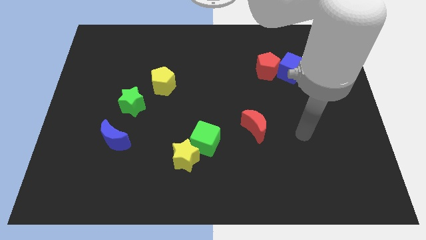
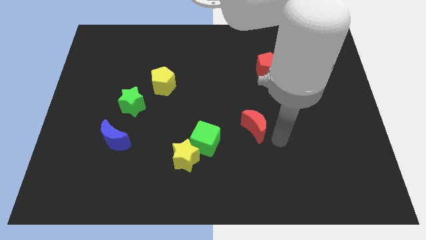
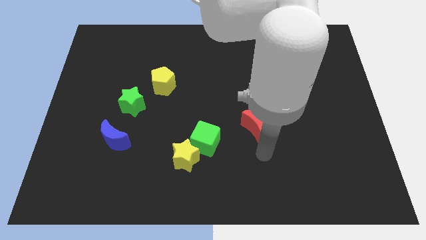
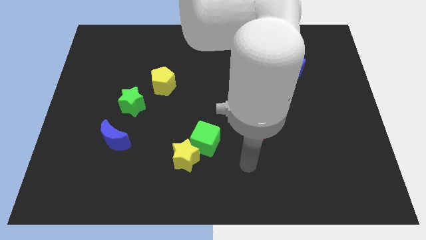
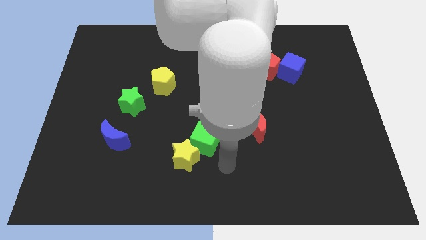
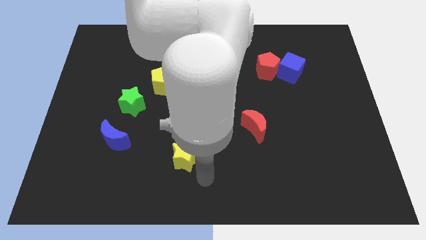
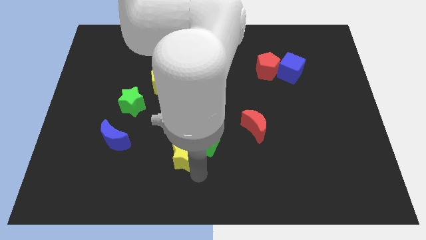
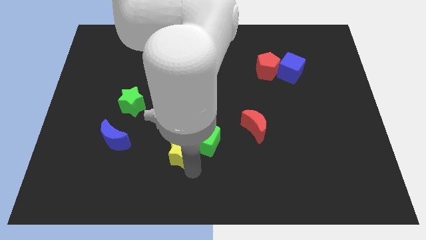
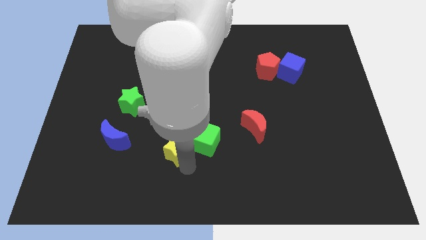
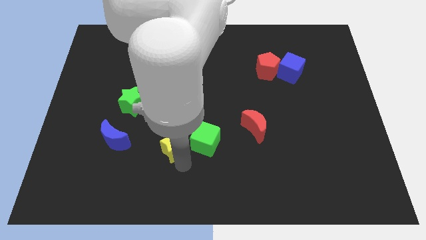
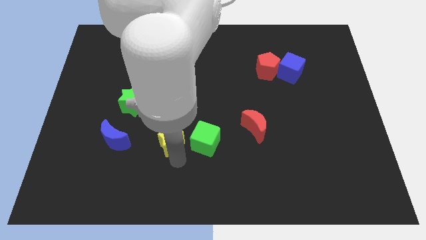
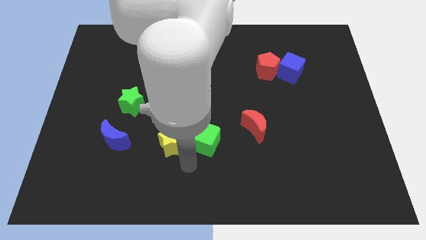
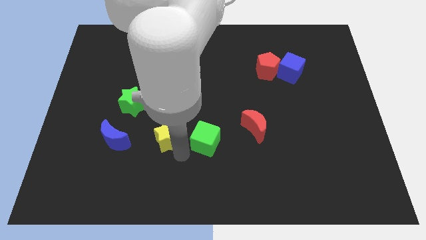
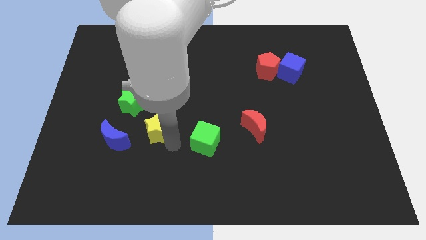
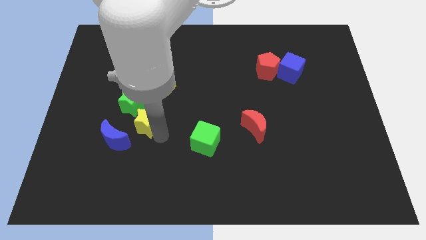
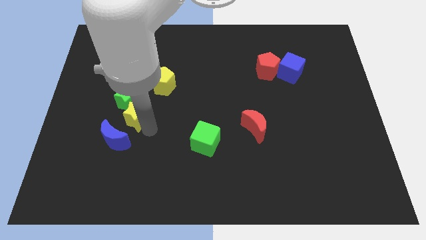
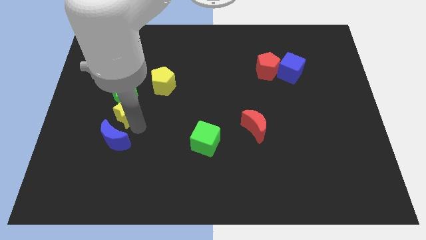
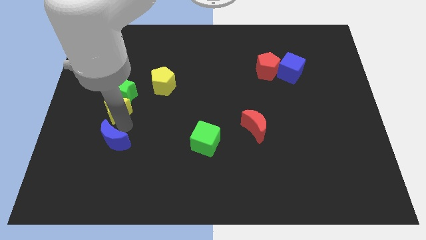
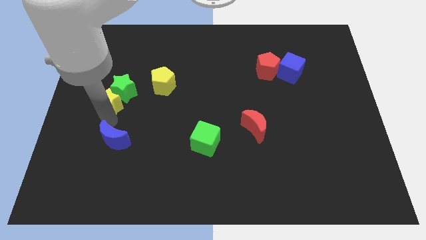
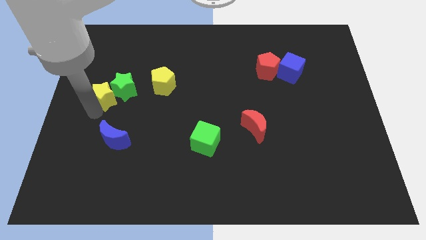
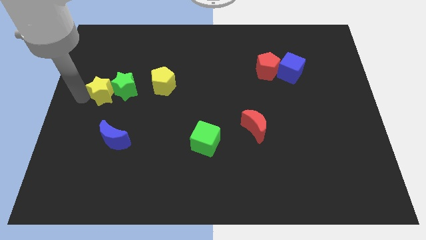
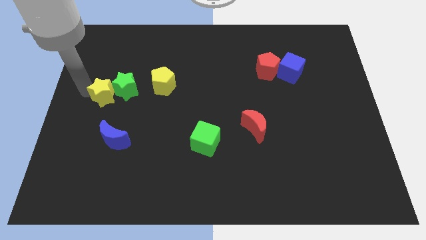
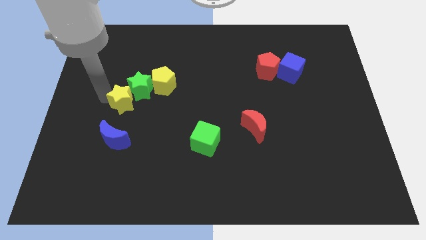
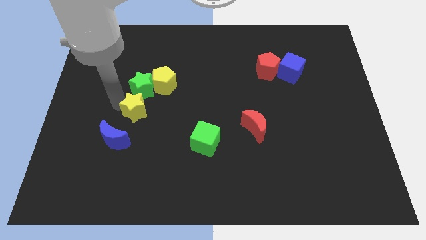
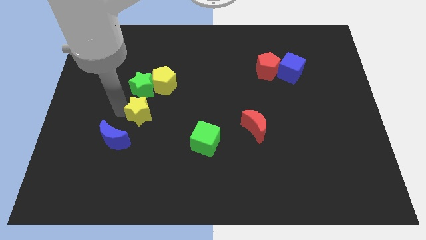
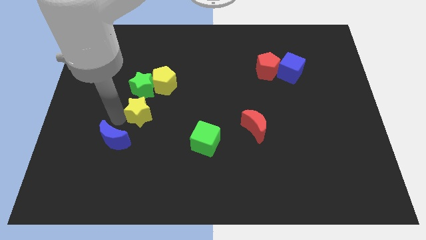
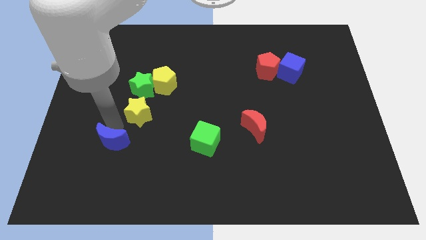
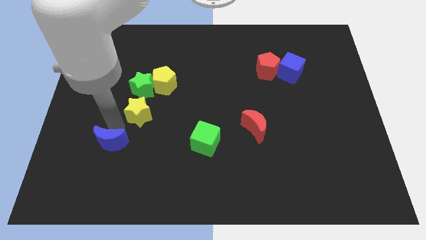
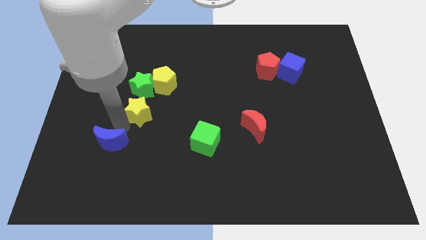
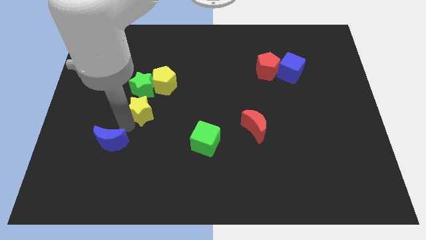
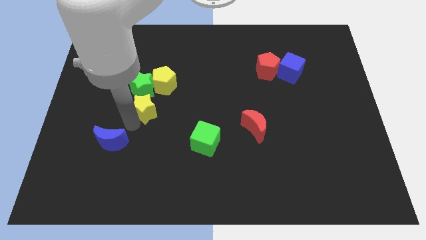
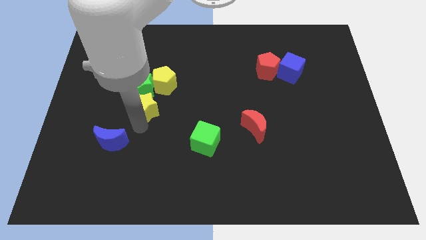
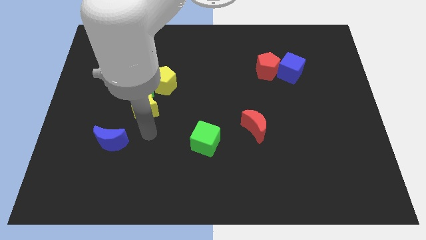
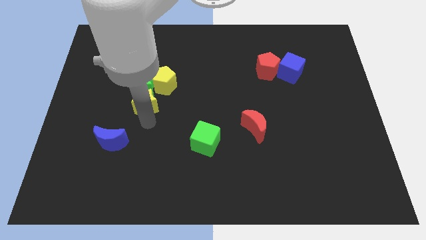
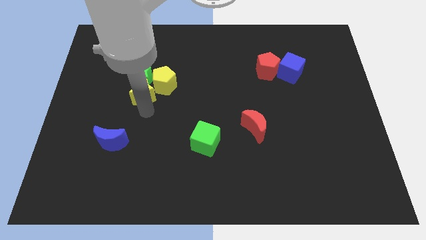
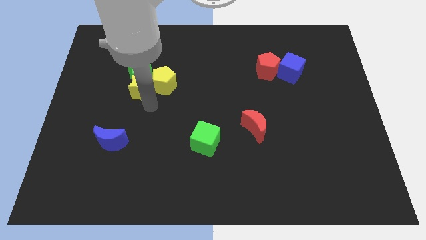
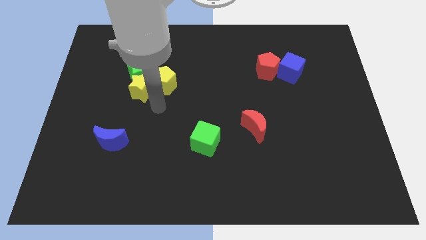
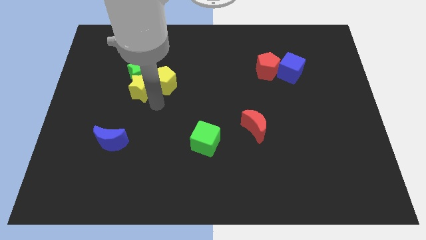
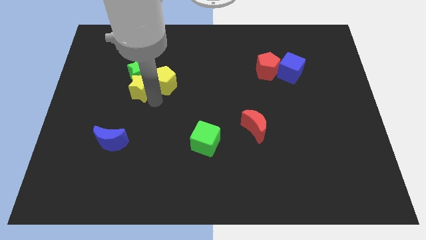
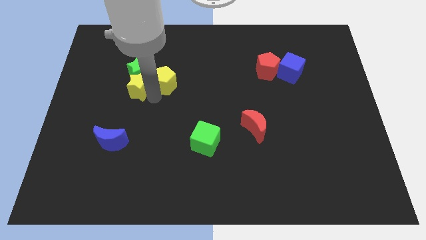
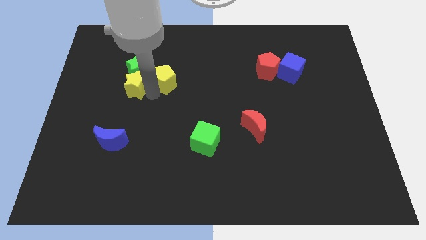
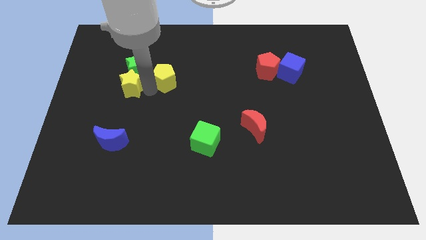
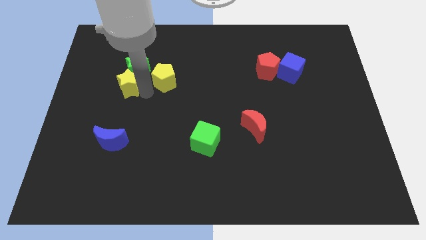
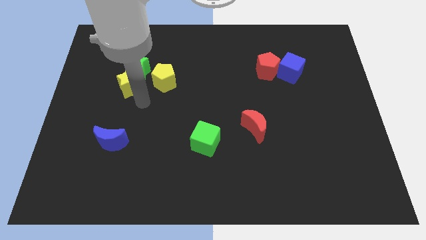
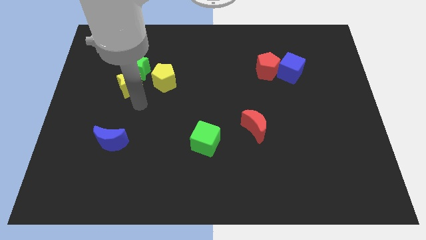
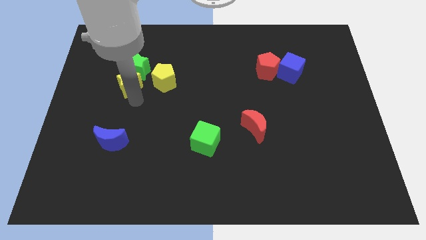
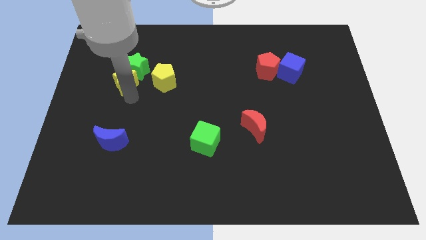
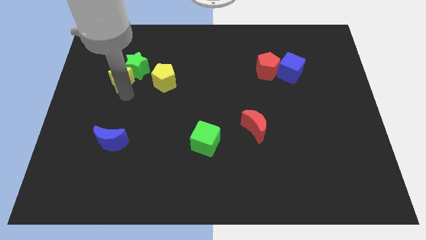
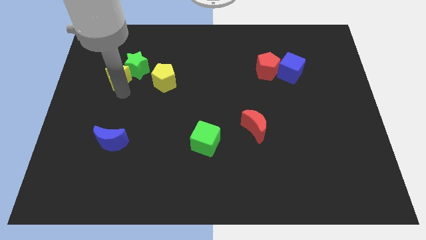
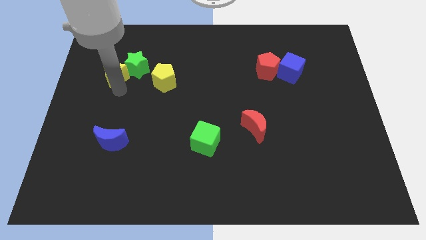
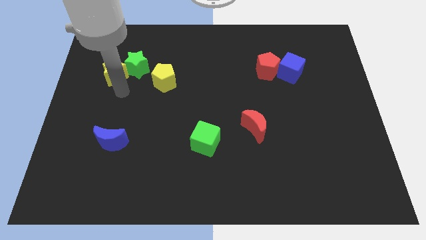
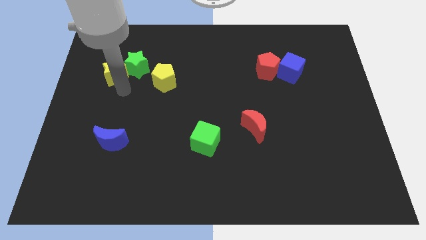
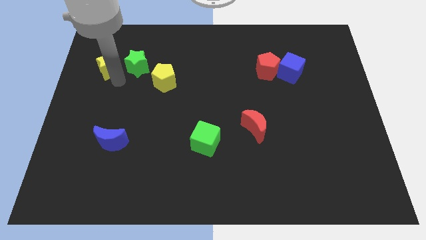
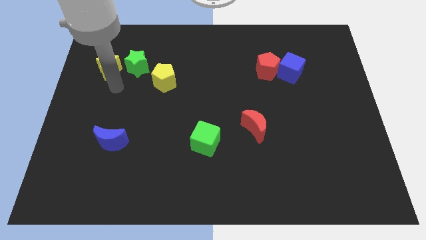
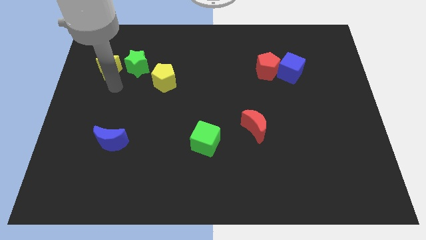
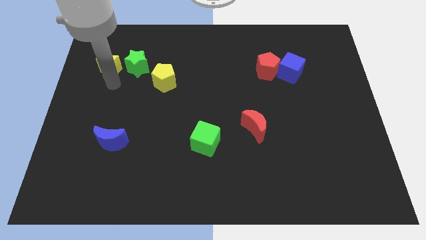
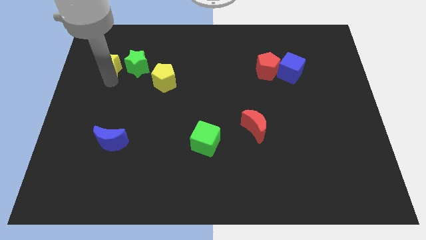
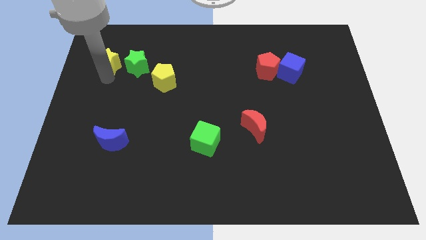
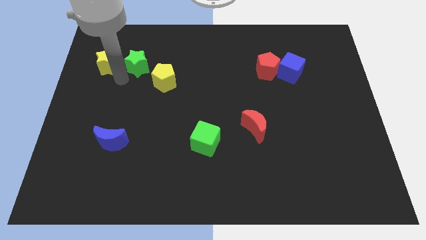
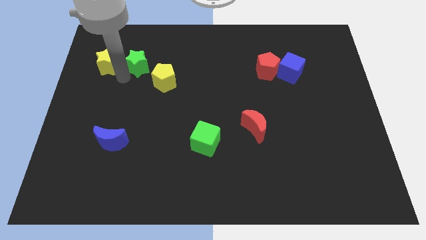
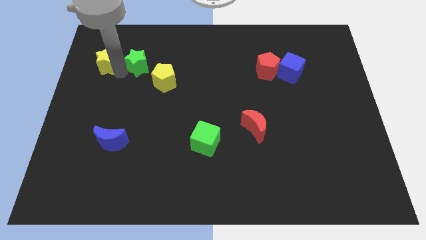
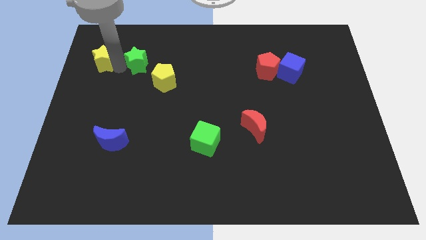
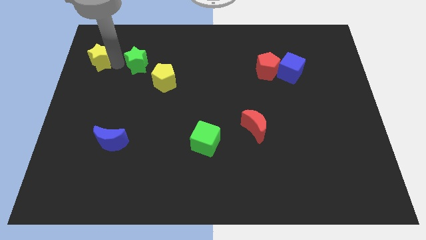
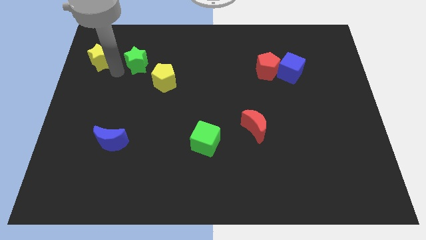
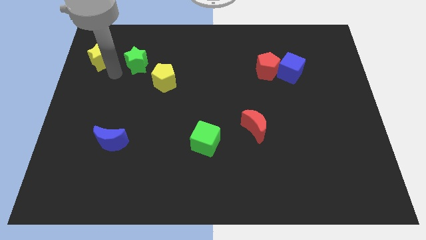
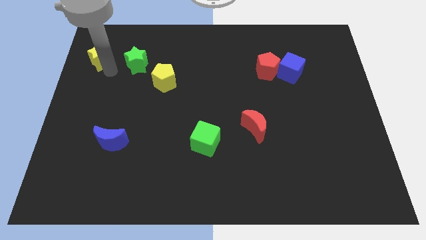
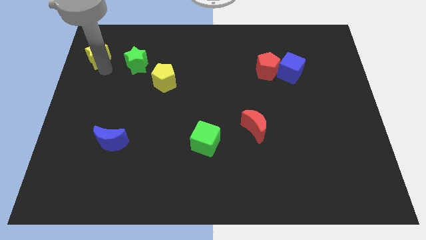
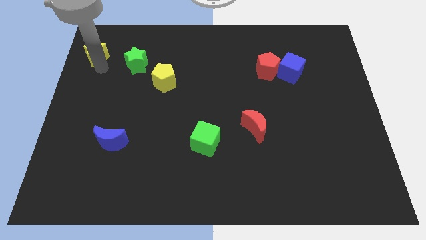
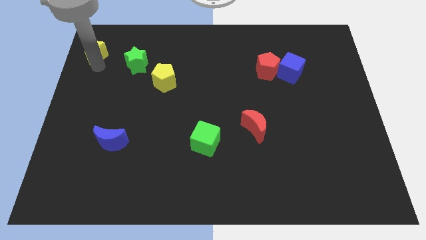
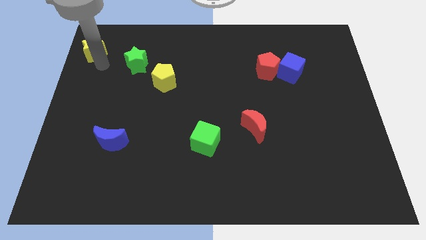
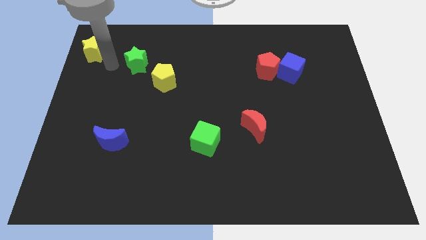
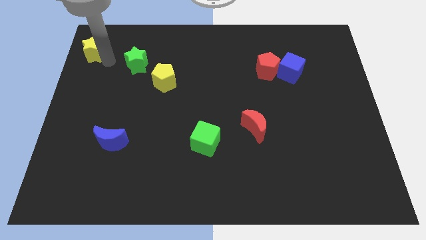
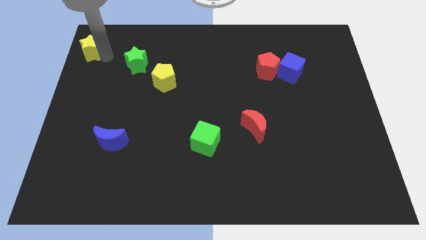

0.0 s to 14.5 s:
move the yellow star to the top left of the board
